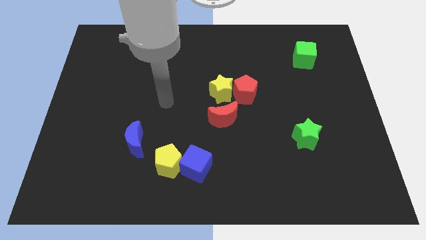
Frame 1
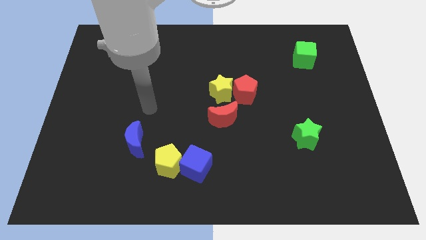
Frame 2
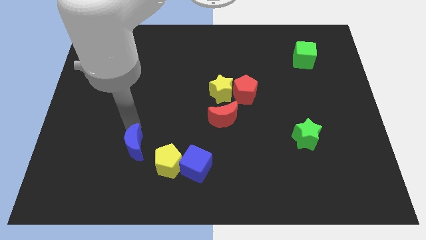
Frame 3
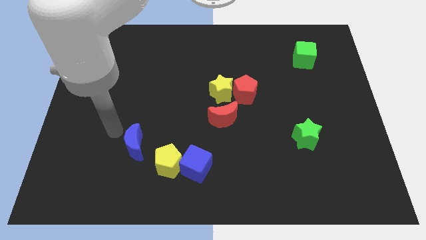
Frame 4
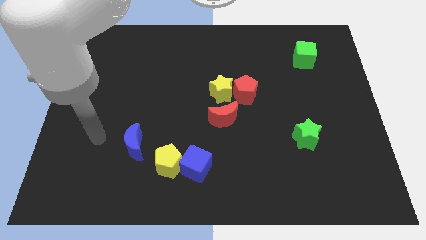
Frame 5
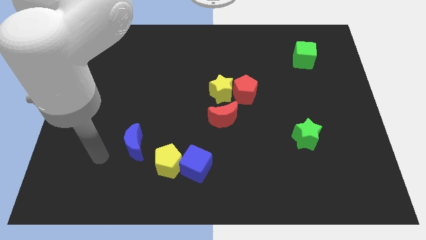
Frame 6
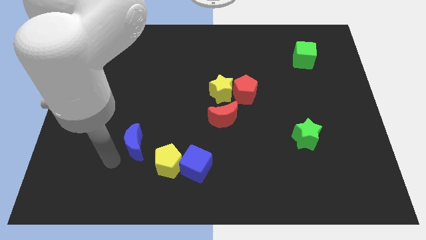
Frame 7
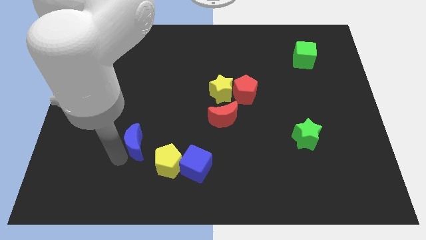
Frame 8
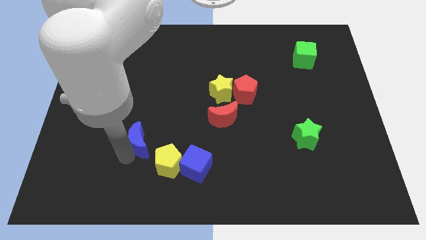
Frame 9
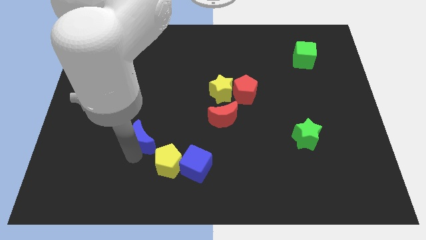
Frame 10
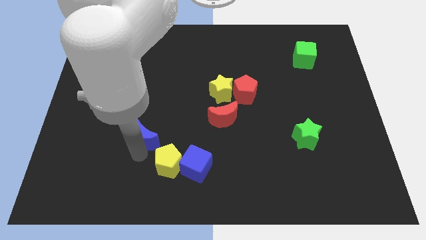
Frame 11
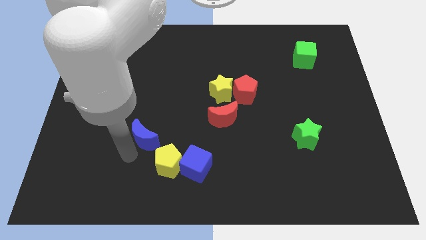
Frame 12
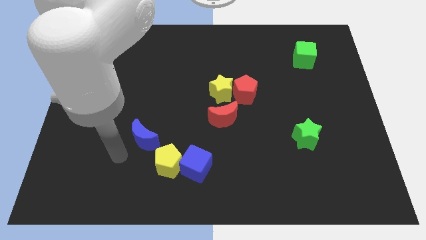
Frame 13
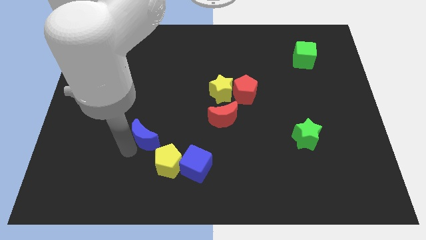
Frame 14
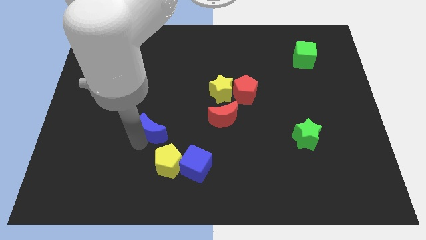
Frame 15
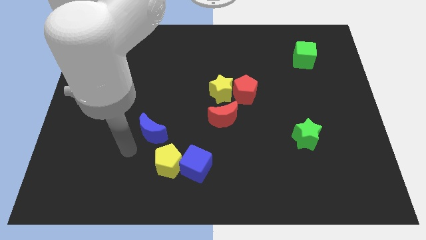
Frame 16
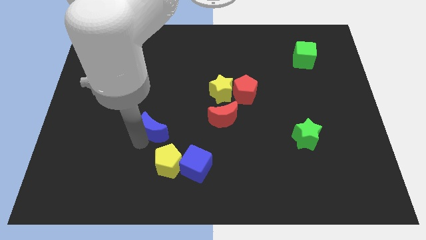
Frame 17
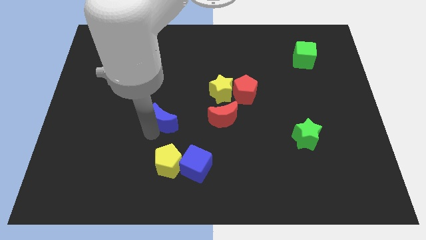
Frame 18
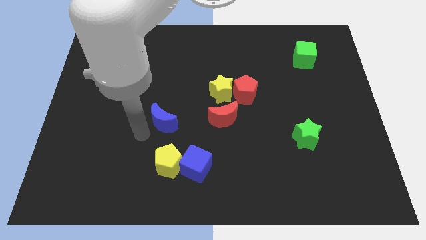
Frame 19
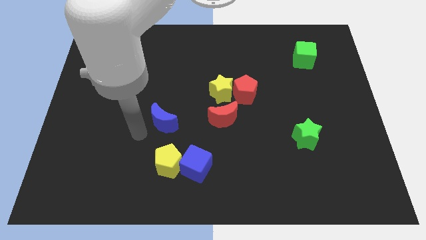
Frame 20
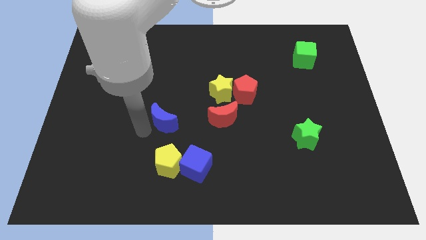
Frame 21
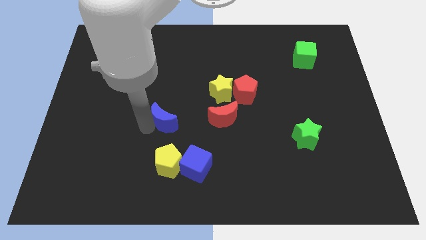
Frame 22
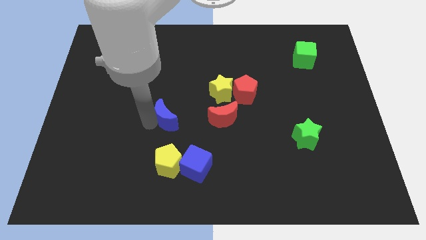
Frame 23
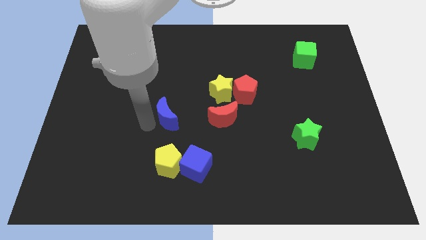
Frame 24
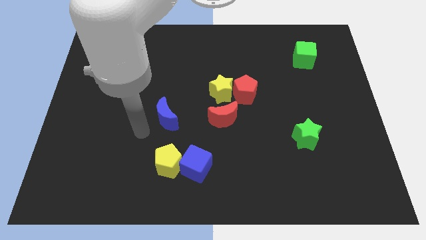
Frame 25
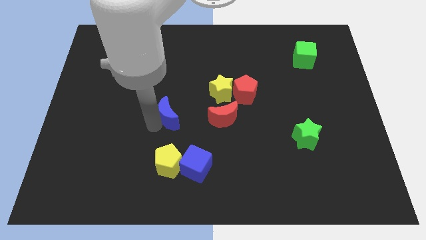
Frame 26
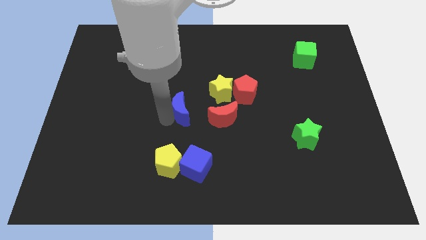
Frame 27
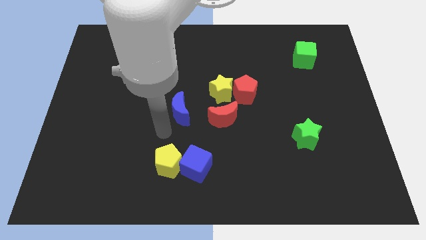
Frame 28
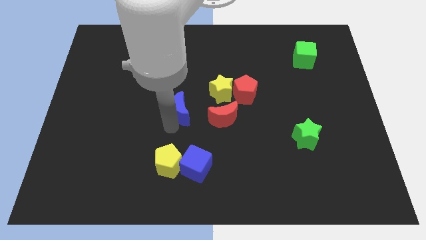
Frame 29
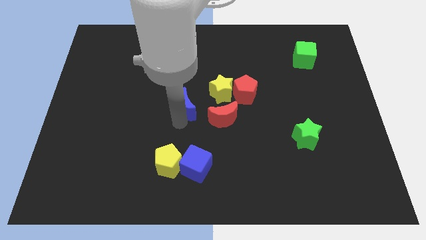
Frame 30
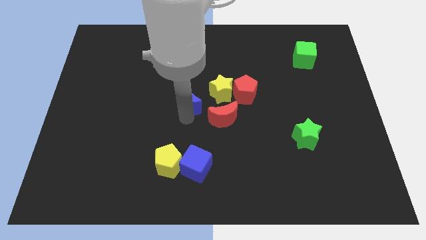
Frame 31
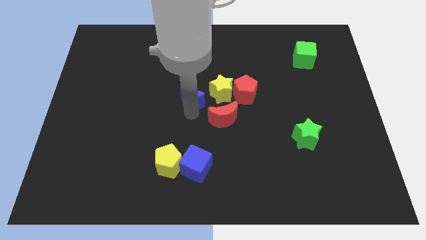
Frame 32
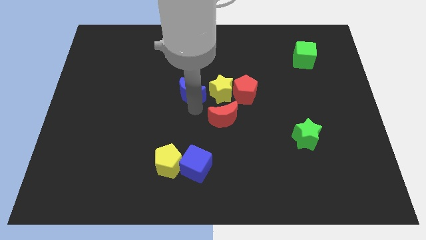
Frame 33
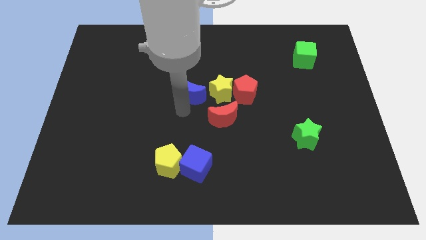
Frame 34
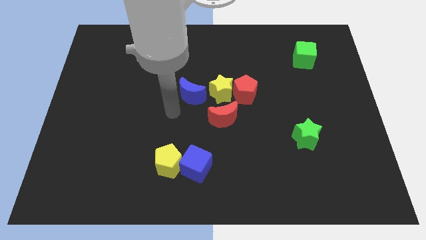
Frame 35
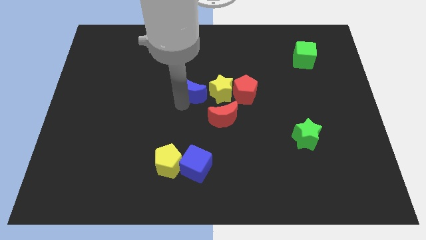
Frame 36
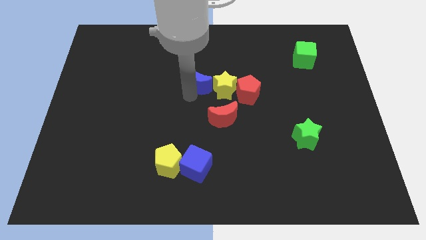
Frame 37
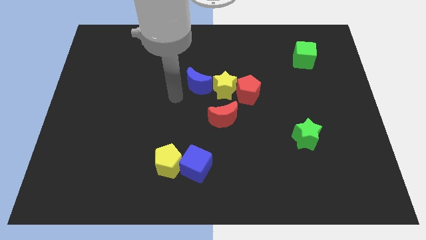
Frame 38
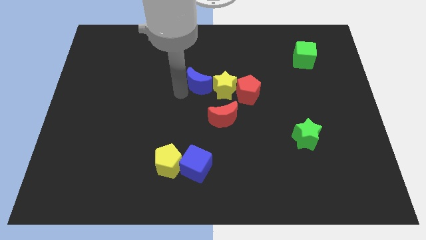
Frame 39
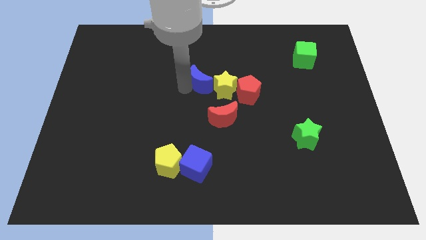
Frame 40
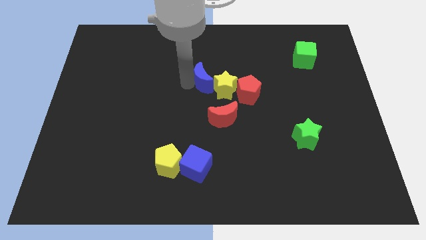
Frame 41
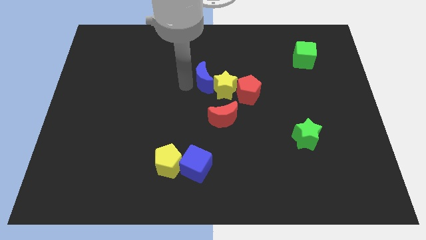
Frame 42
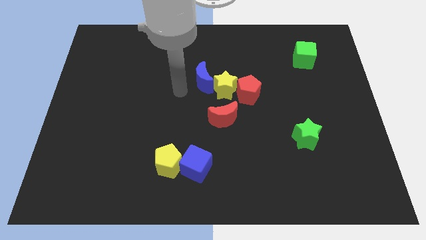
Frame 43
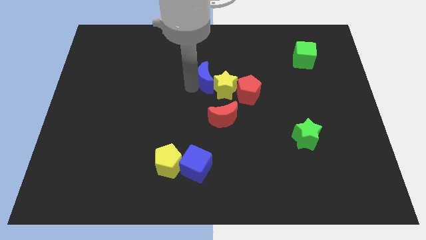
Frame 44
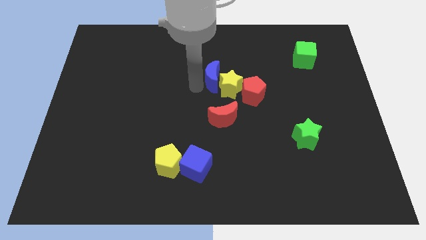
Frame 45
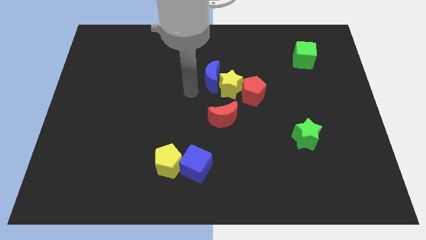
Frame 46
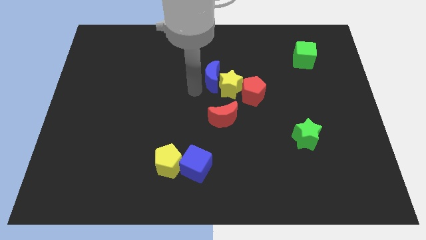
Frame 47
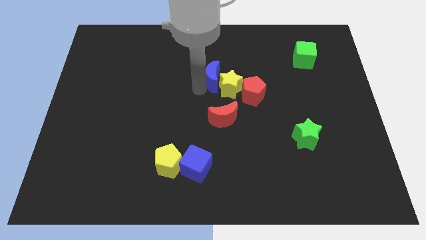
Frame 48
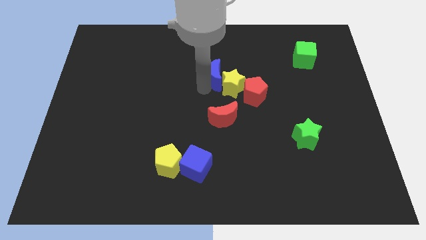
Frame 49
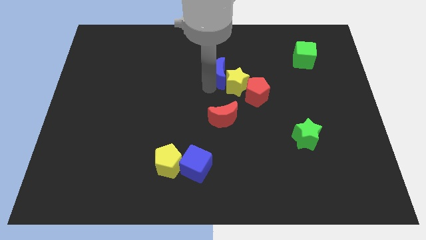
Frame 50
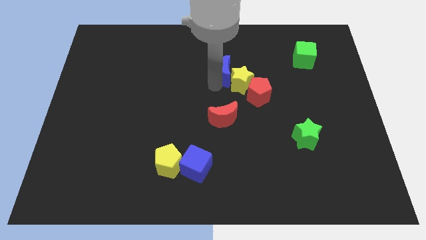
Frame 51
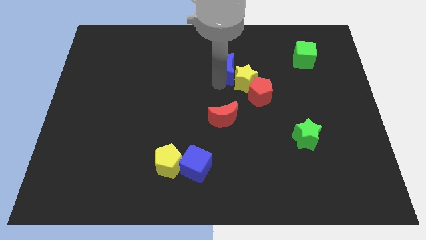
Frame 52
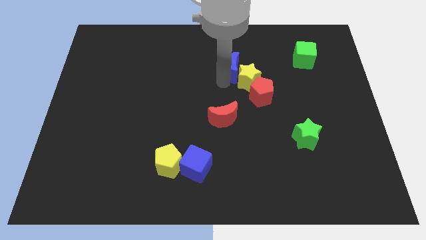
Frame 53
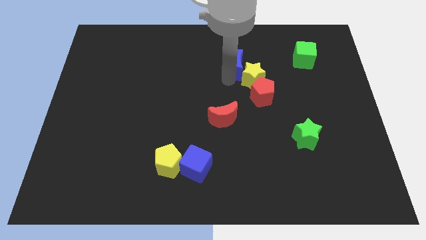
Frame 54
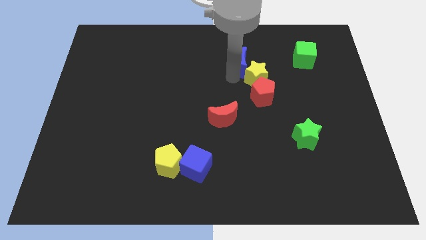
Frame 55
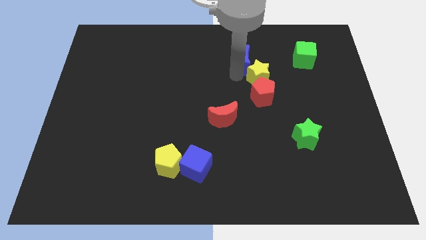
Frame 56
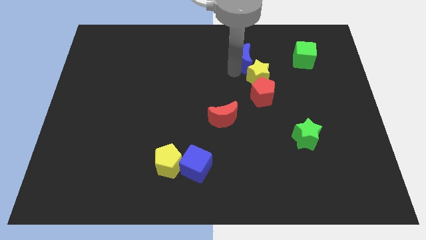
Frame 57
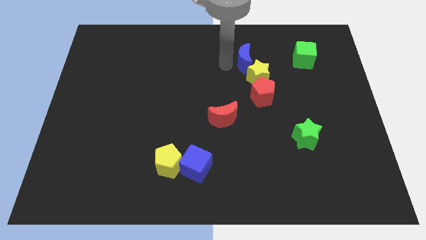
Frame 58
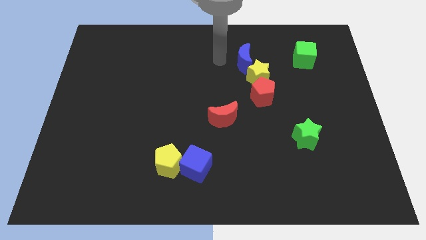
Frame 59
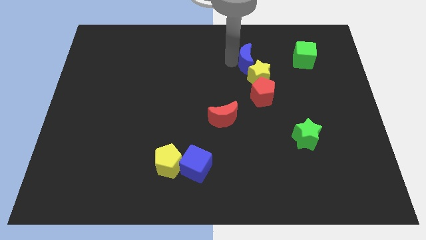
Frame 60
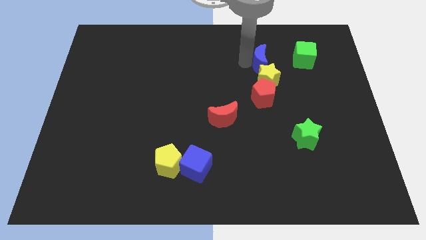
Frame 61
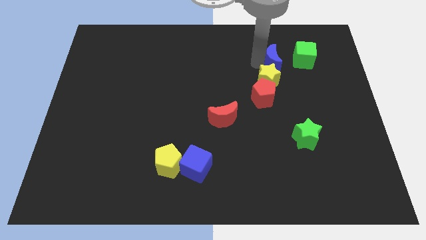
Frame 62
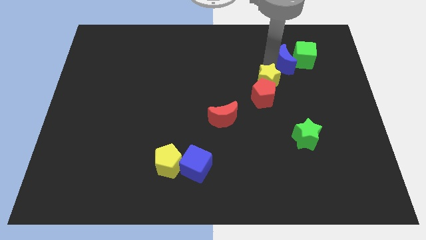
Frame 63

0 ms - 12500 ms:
push the blue moon to the green cube

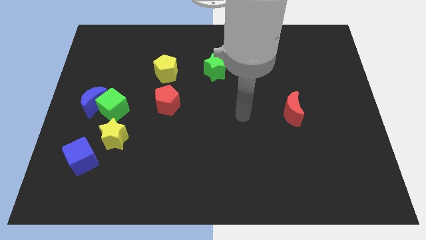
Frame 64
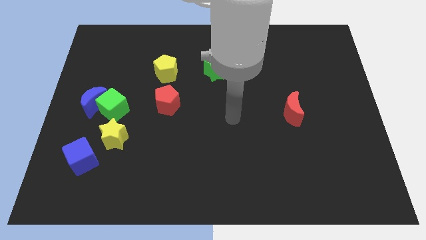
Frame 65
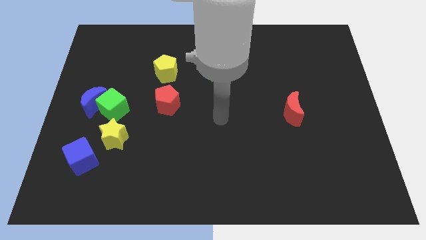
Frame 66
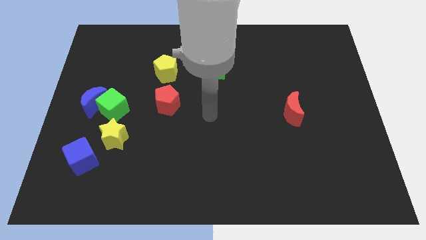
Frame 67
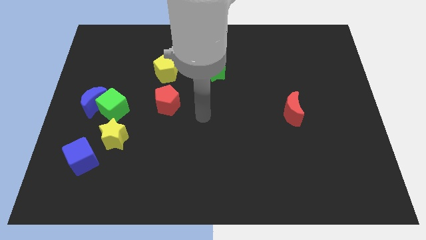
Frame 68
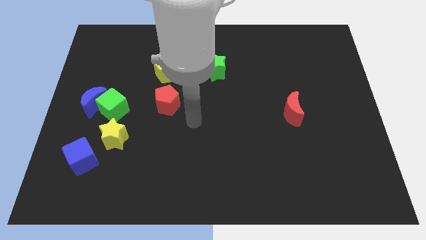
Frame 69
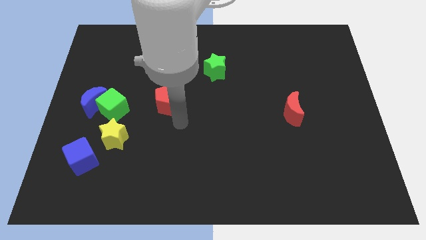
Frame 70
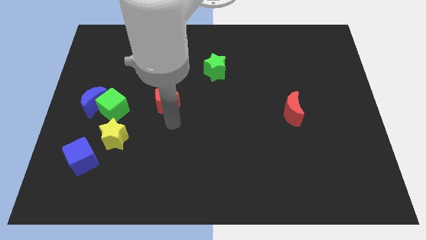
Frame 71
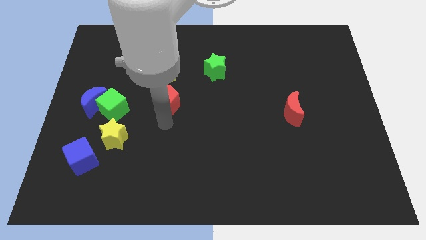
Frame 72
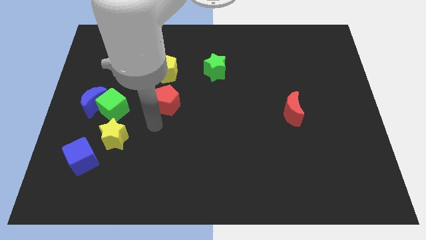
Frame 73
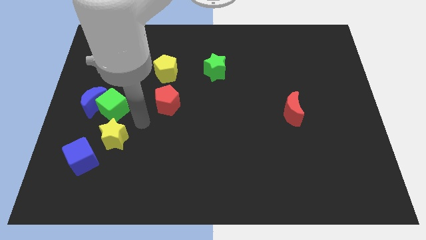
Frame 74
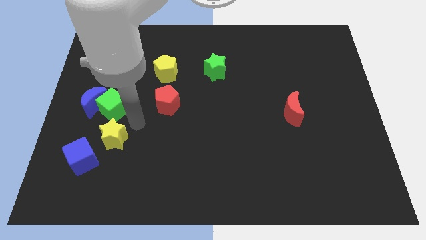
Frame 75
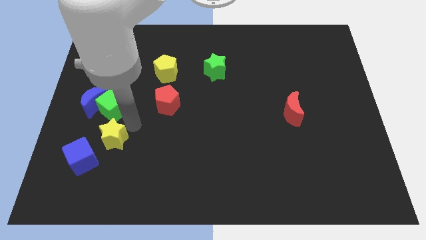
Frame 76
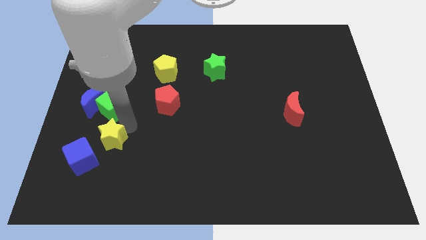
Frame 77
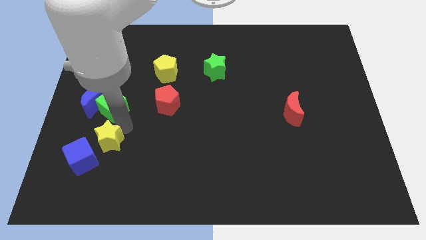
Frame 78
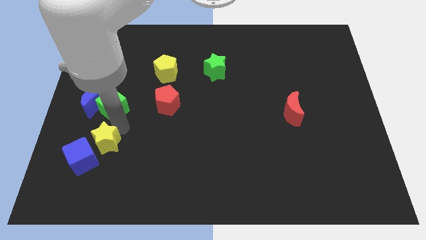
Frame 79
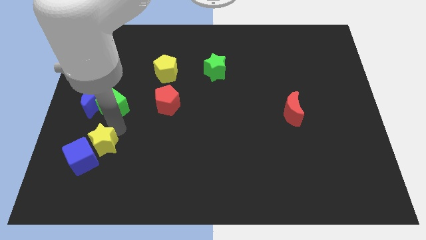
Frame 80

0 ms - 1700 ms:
put the yellow star close to the blue cube
